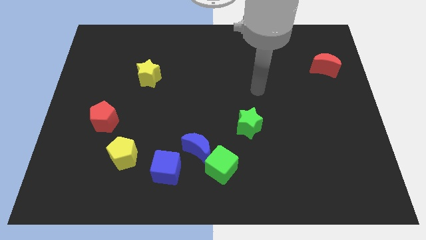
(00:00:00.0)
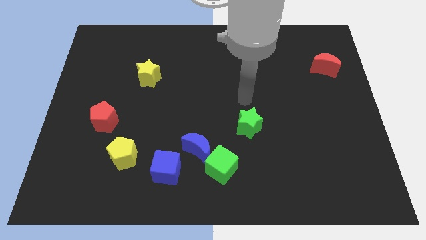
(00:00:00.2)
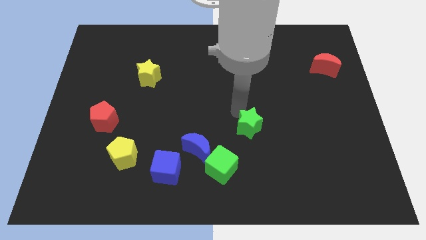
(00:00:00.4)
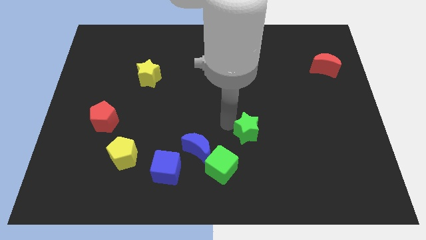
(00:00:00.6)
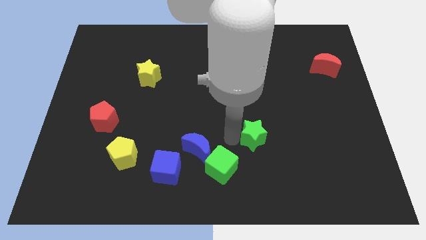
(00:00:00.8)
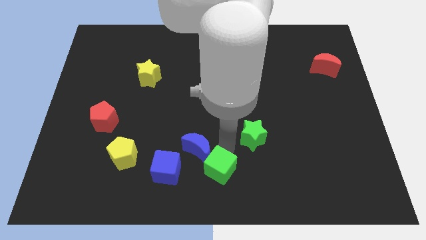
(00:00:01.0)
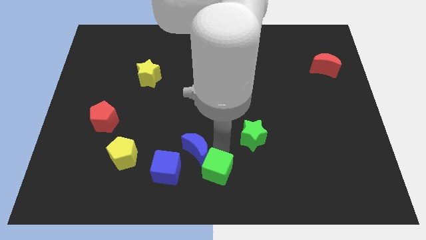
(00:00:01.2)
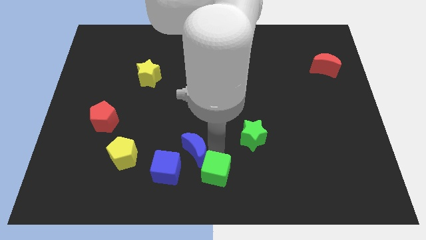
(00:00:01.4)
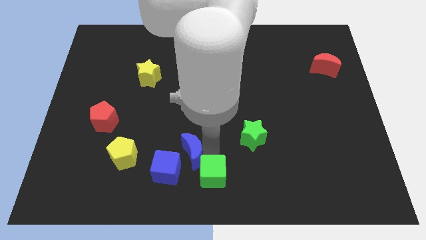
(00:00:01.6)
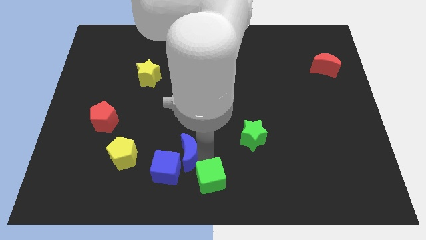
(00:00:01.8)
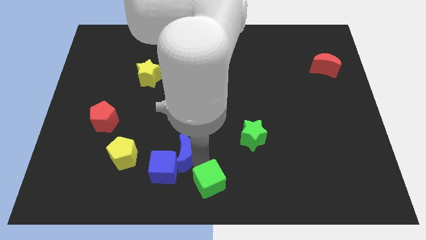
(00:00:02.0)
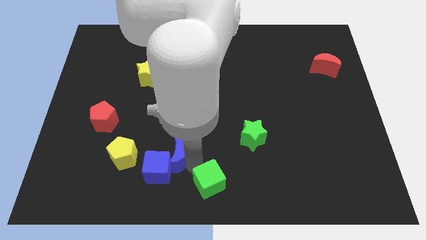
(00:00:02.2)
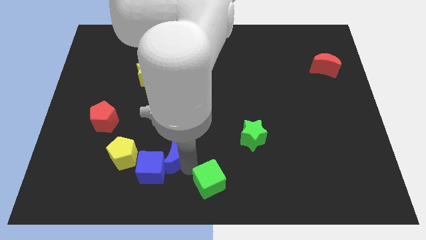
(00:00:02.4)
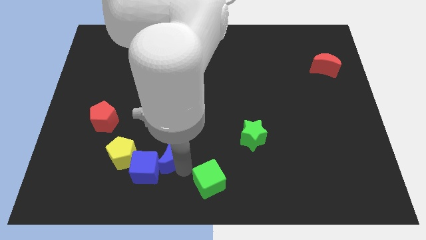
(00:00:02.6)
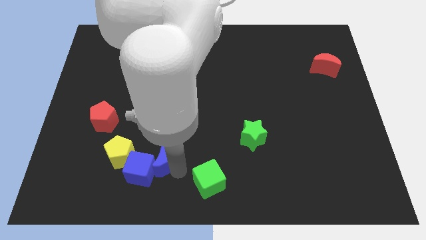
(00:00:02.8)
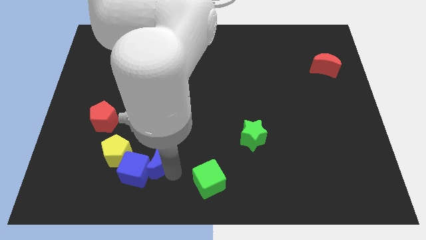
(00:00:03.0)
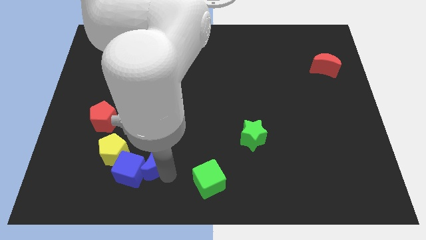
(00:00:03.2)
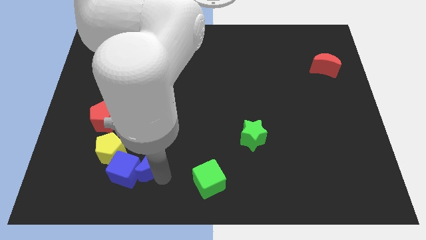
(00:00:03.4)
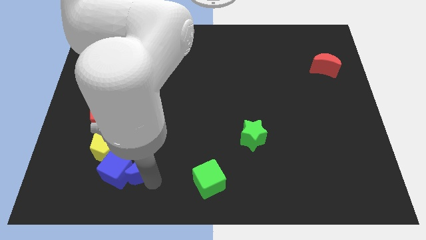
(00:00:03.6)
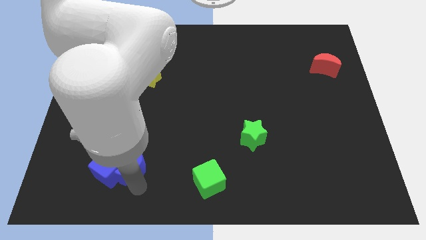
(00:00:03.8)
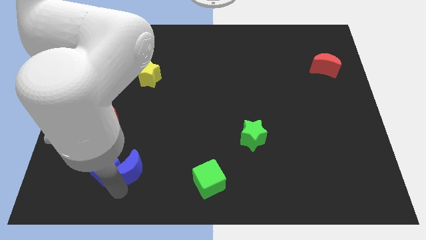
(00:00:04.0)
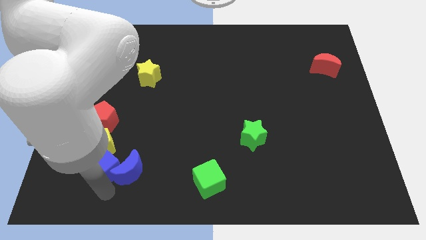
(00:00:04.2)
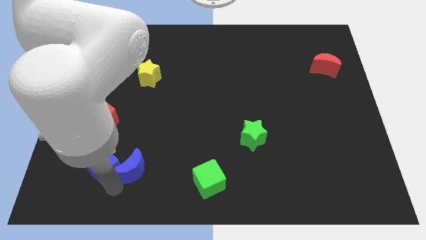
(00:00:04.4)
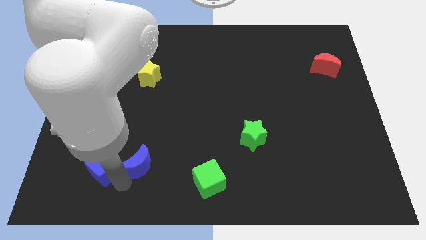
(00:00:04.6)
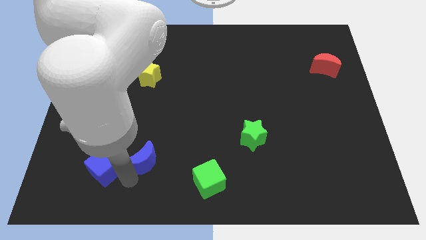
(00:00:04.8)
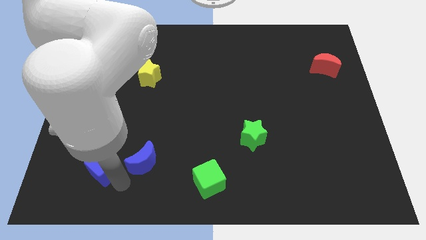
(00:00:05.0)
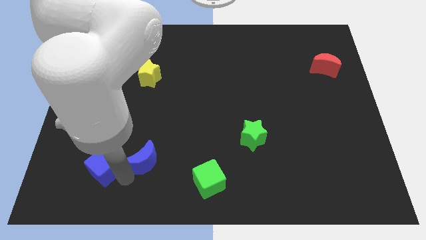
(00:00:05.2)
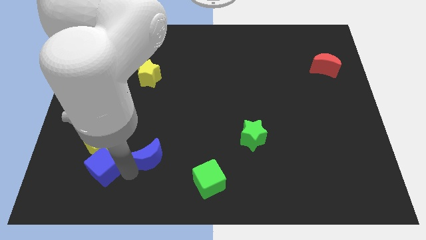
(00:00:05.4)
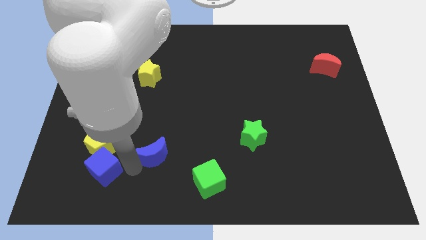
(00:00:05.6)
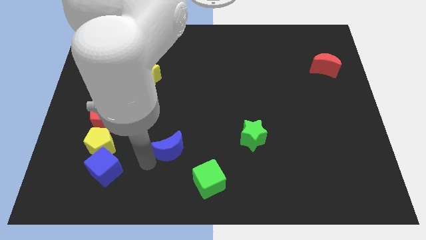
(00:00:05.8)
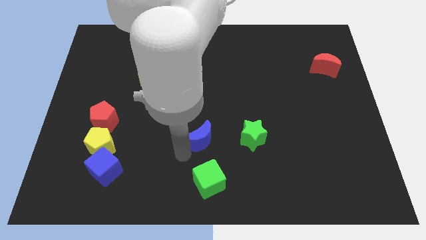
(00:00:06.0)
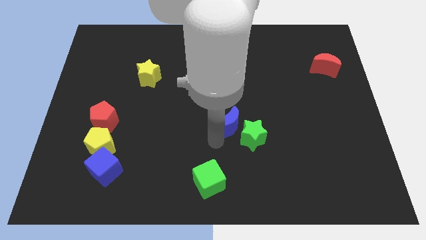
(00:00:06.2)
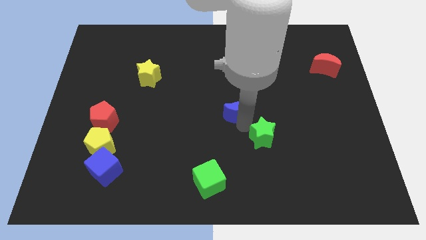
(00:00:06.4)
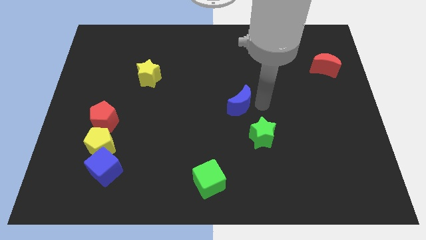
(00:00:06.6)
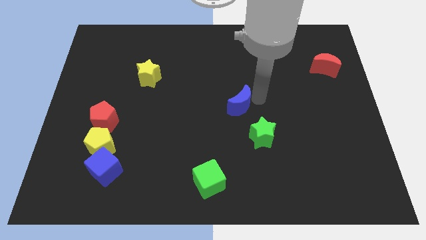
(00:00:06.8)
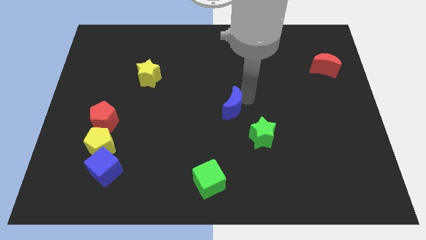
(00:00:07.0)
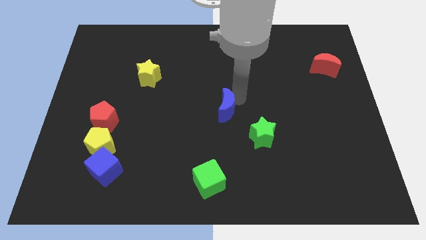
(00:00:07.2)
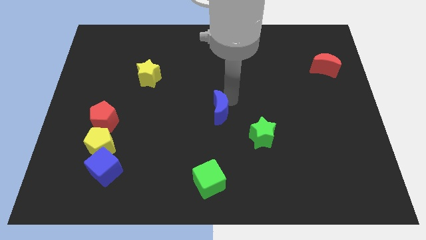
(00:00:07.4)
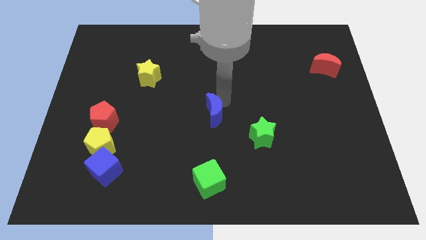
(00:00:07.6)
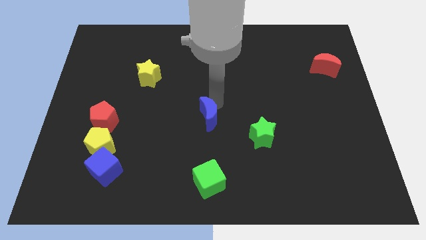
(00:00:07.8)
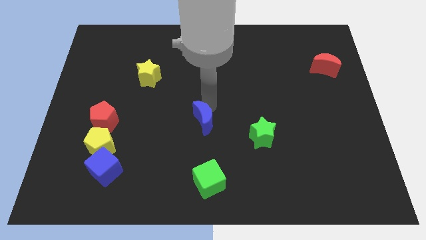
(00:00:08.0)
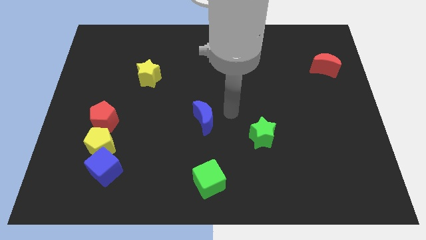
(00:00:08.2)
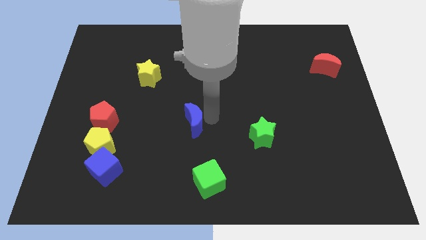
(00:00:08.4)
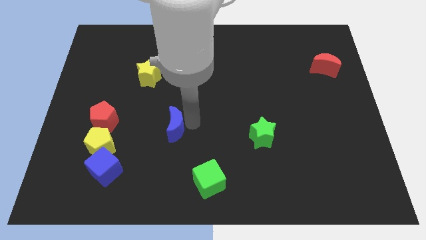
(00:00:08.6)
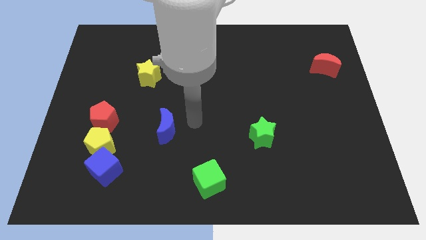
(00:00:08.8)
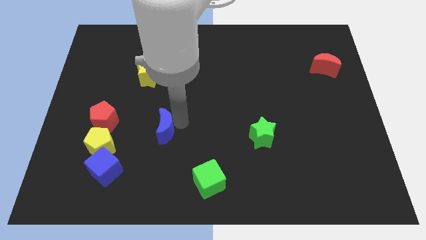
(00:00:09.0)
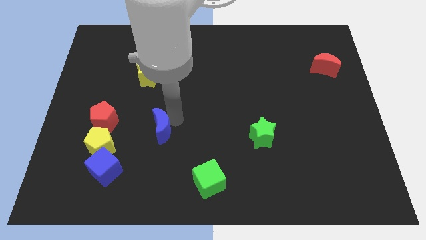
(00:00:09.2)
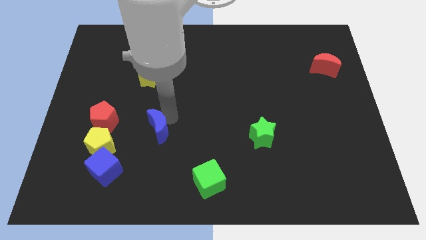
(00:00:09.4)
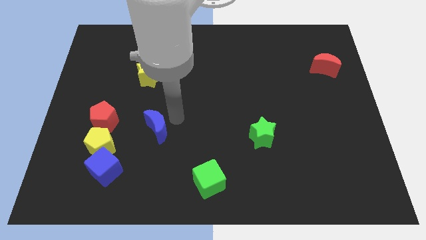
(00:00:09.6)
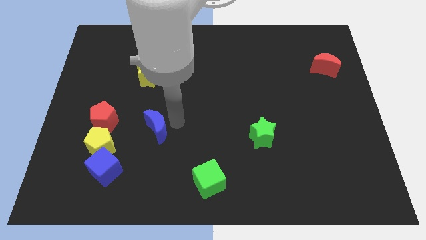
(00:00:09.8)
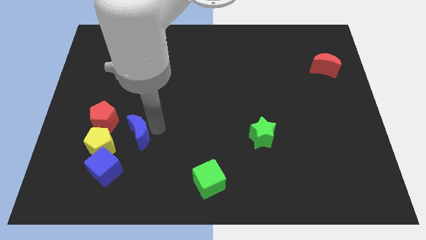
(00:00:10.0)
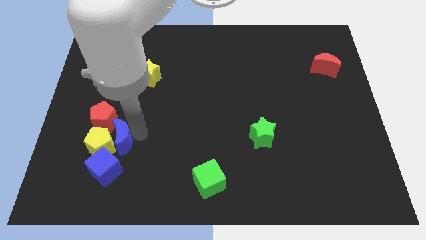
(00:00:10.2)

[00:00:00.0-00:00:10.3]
push the blue moon to the yellow pentagon

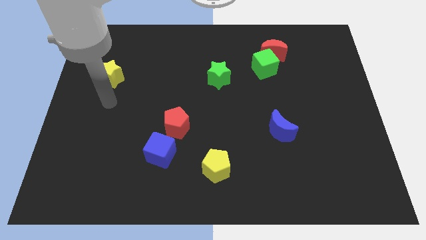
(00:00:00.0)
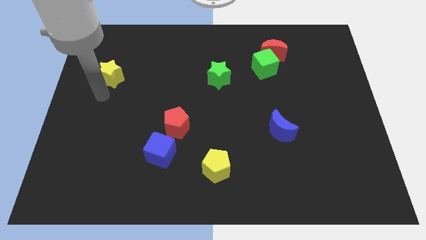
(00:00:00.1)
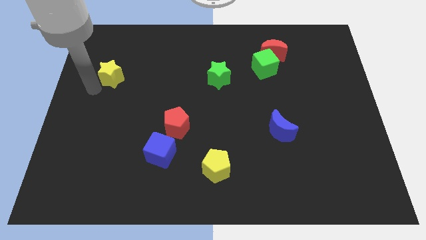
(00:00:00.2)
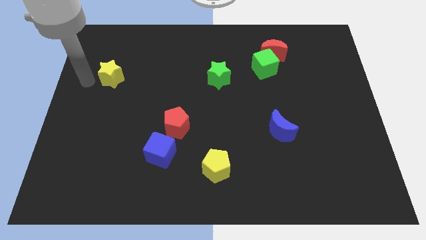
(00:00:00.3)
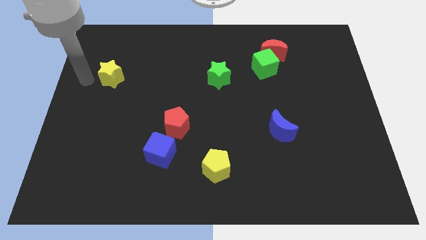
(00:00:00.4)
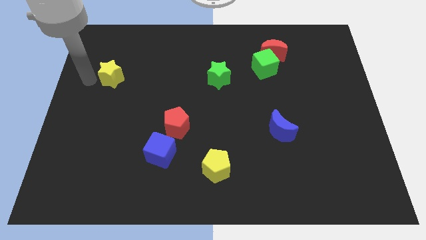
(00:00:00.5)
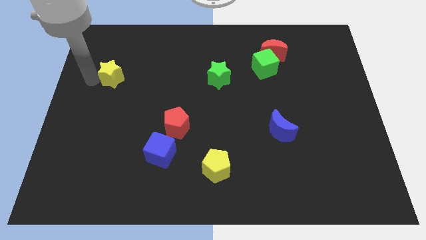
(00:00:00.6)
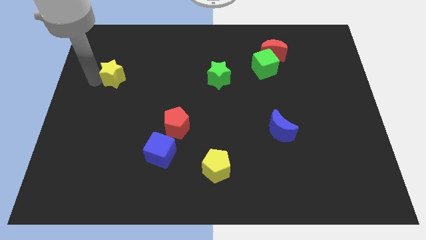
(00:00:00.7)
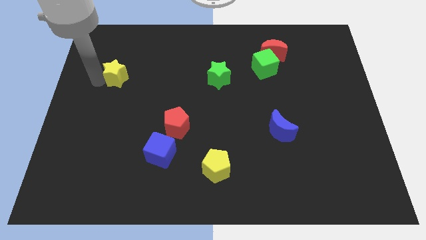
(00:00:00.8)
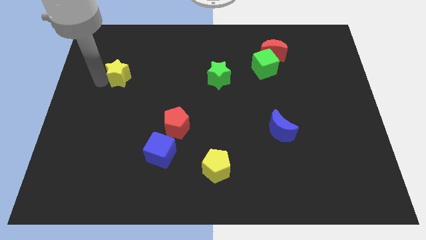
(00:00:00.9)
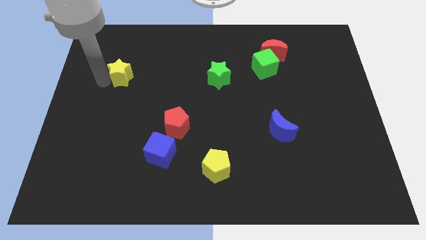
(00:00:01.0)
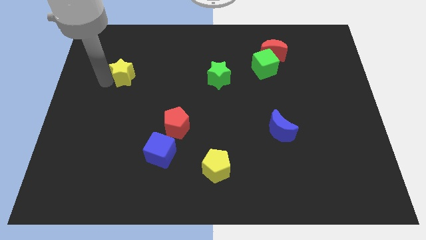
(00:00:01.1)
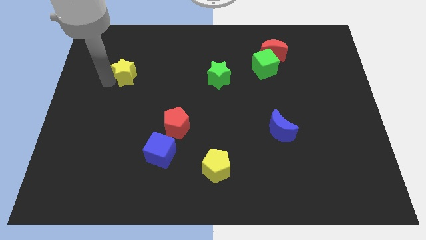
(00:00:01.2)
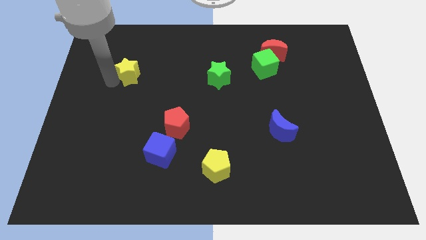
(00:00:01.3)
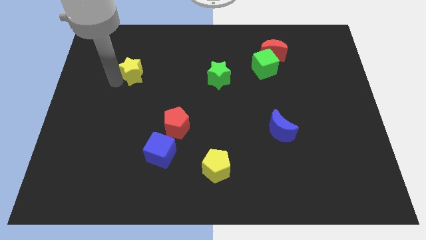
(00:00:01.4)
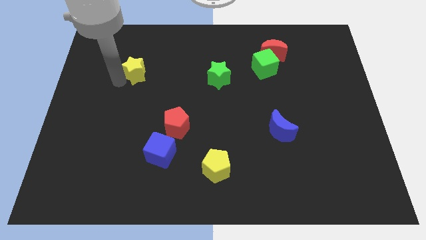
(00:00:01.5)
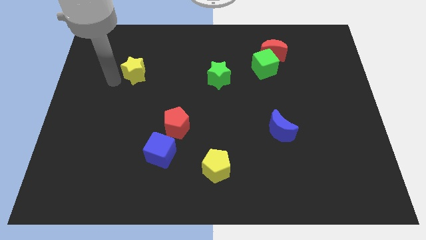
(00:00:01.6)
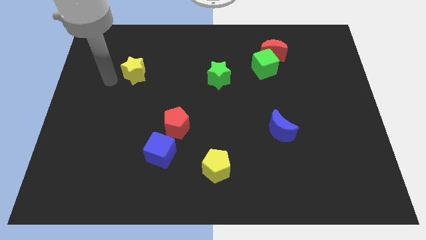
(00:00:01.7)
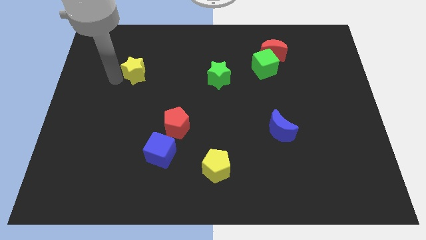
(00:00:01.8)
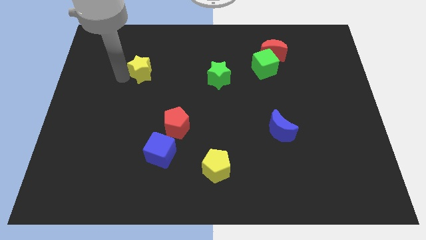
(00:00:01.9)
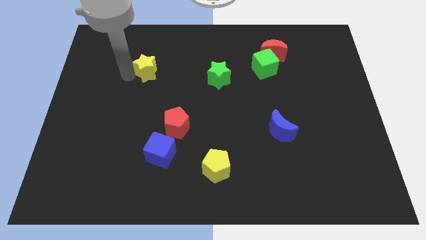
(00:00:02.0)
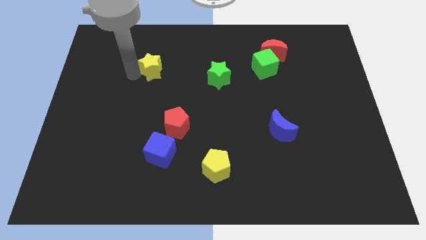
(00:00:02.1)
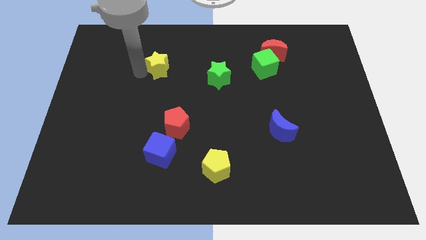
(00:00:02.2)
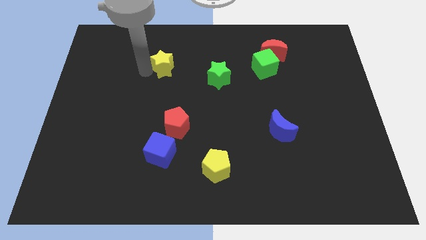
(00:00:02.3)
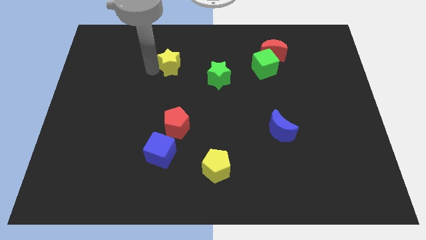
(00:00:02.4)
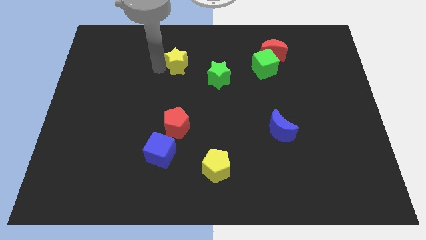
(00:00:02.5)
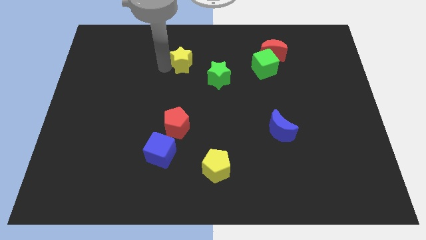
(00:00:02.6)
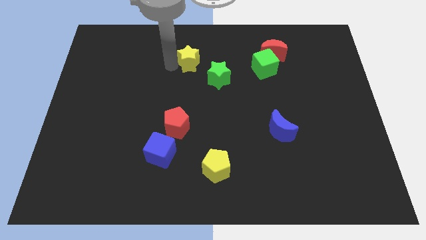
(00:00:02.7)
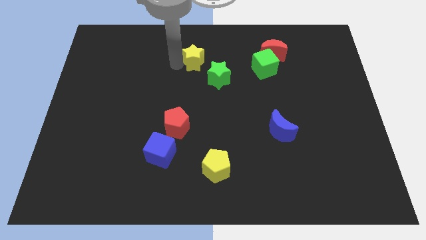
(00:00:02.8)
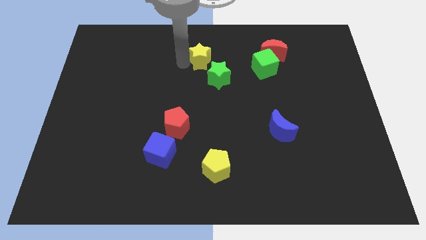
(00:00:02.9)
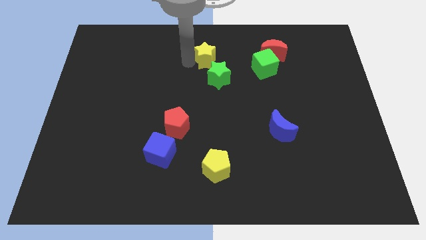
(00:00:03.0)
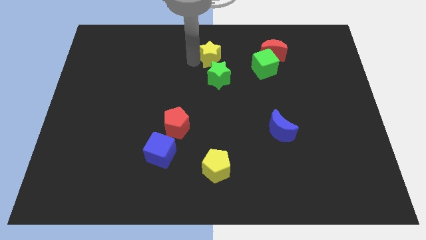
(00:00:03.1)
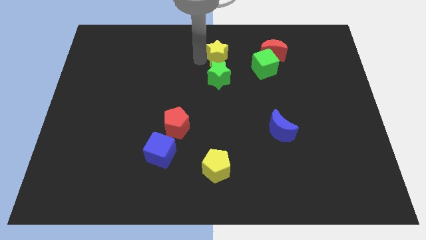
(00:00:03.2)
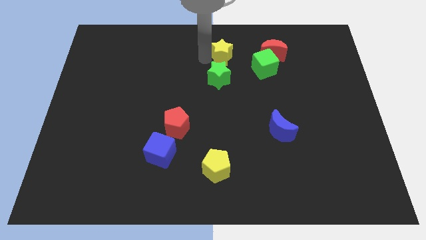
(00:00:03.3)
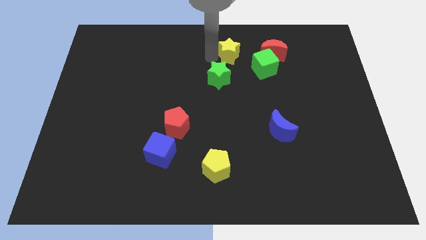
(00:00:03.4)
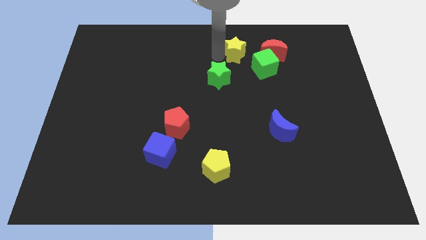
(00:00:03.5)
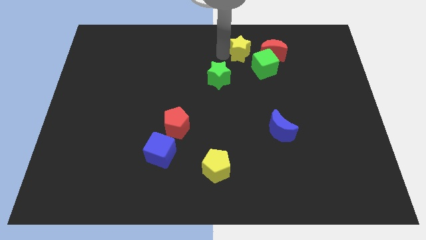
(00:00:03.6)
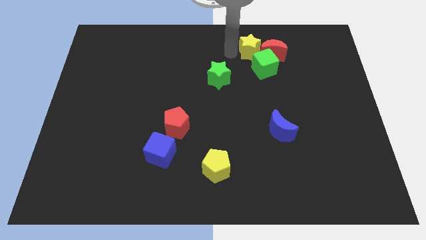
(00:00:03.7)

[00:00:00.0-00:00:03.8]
put the yellow star close to the red moon
